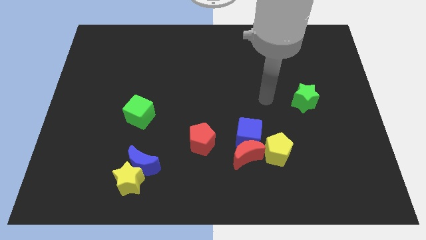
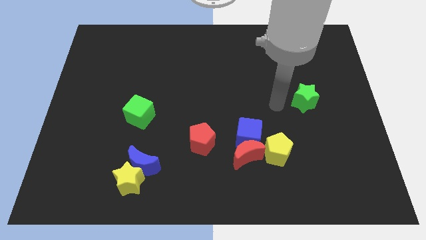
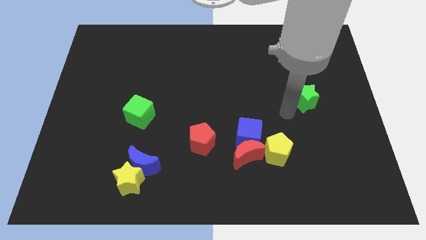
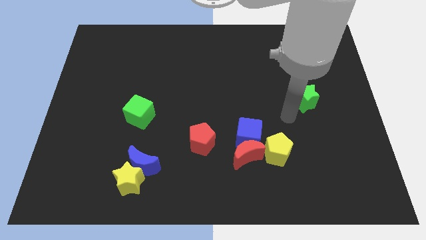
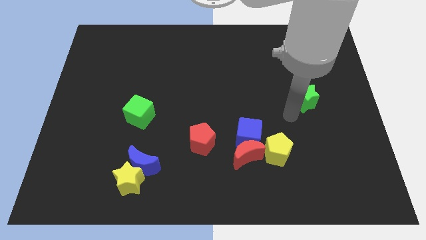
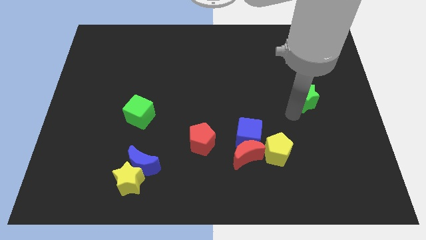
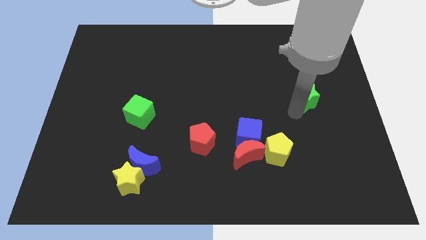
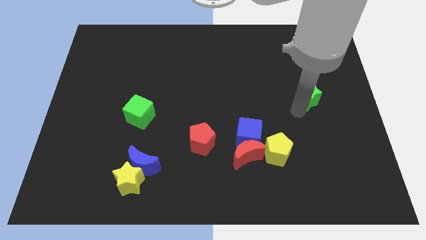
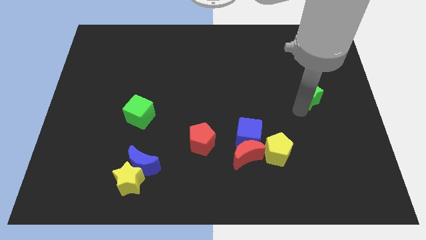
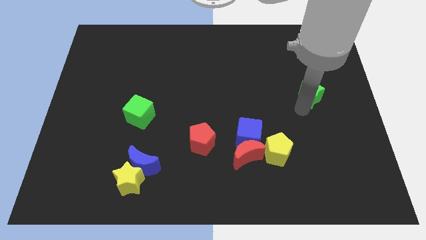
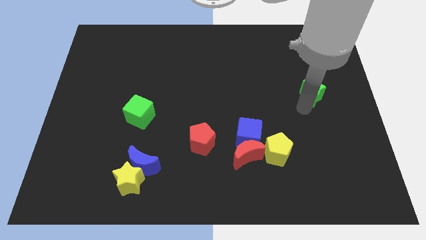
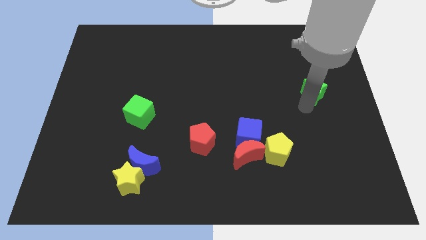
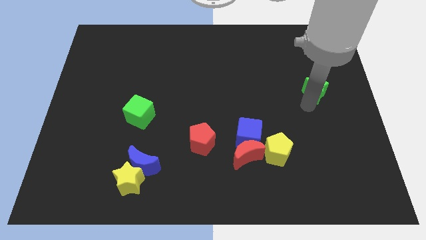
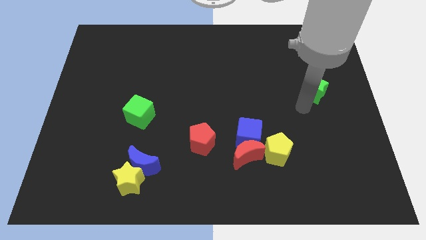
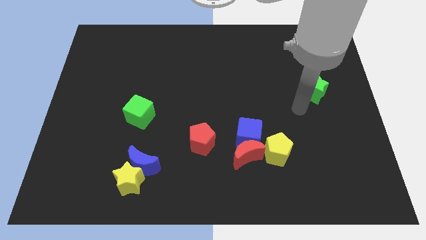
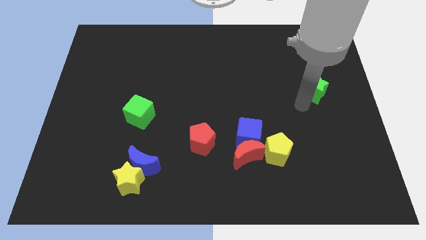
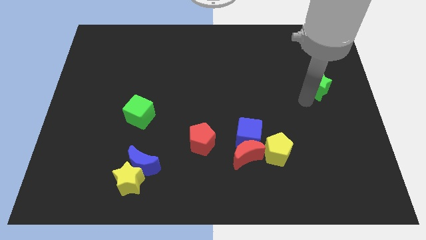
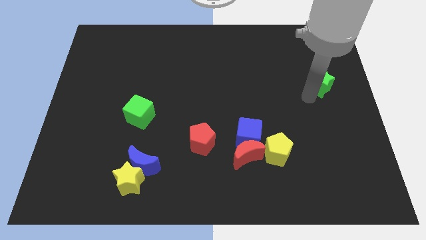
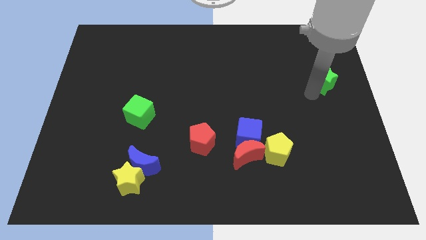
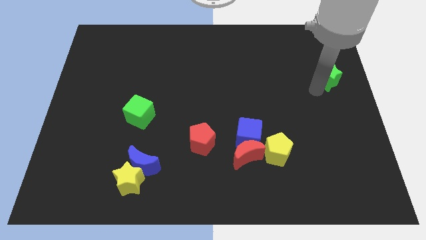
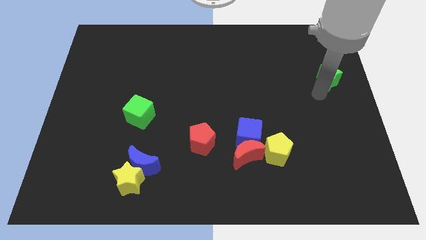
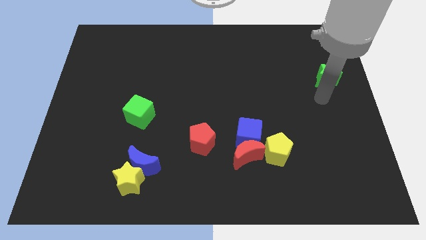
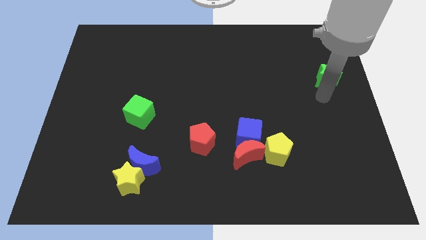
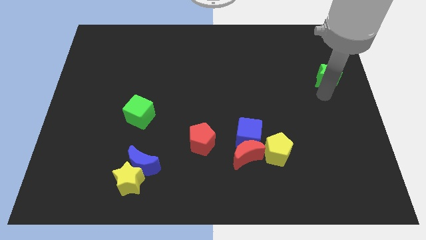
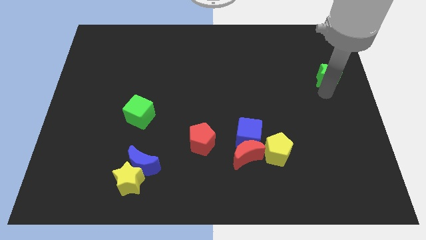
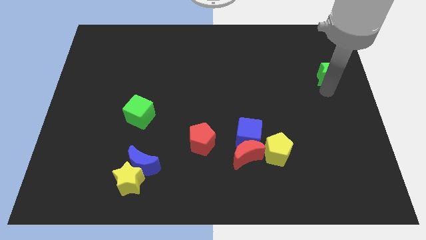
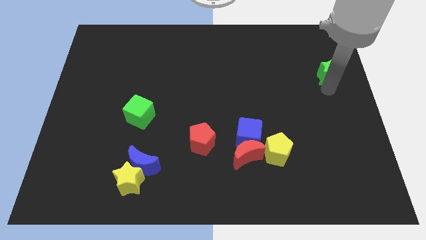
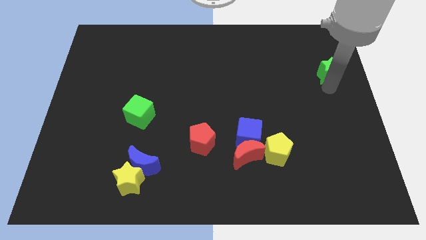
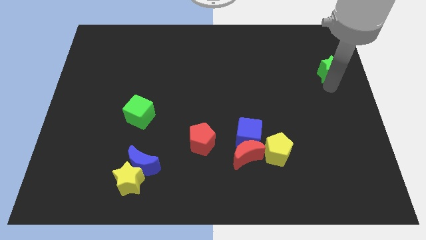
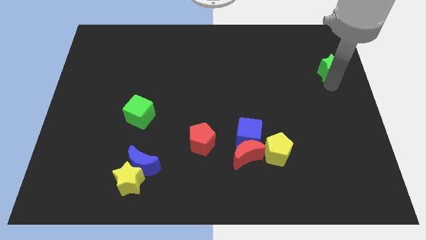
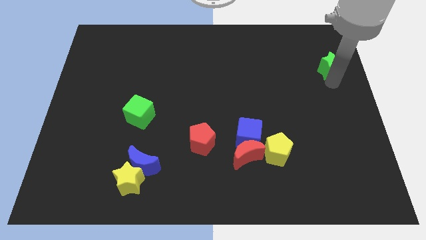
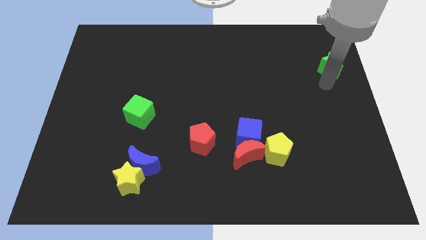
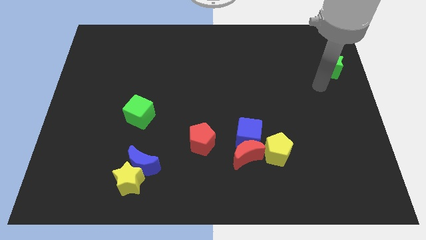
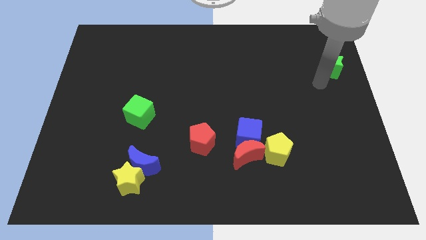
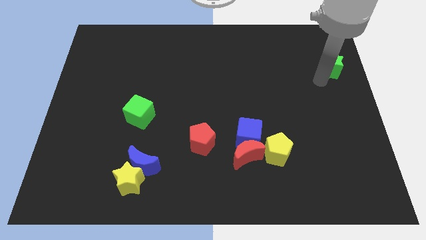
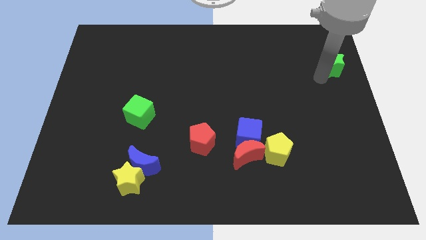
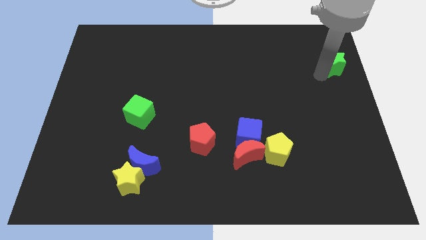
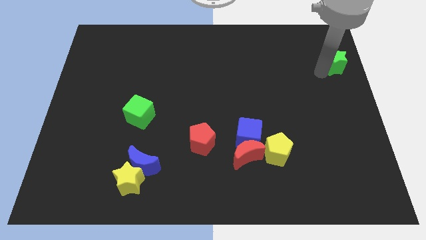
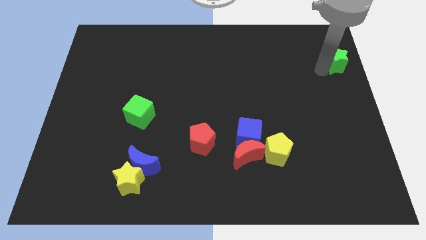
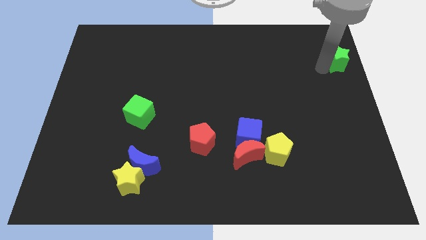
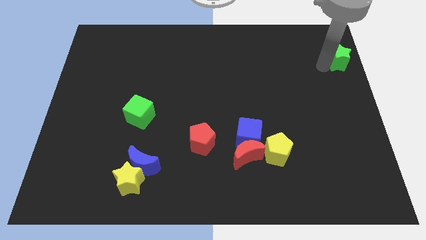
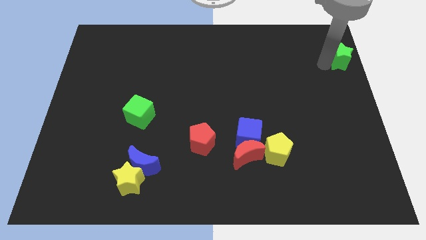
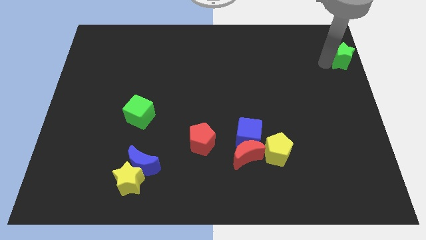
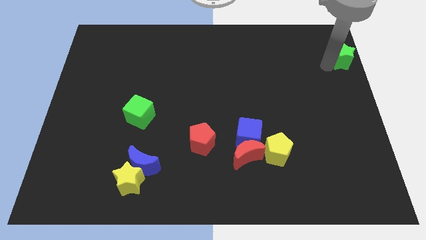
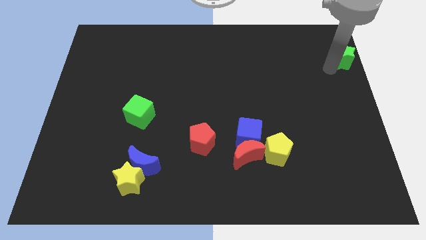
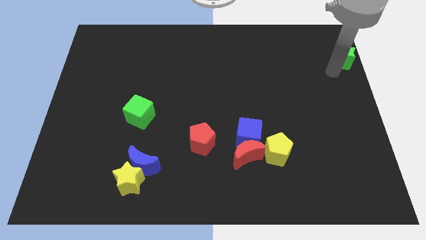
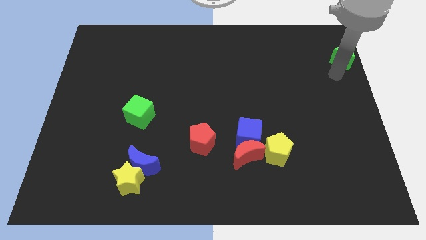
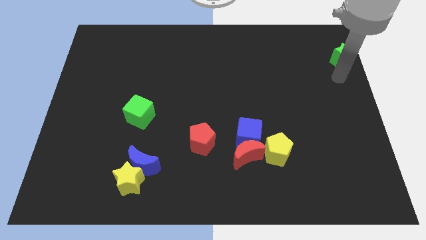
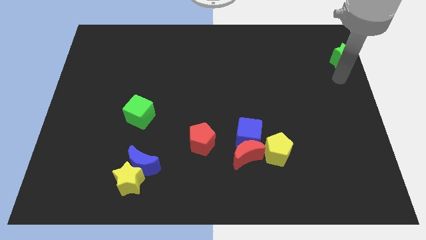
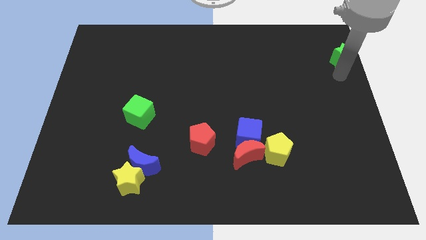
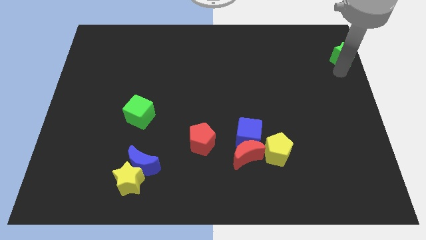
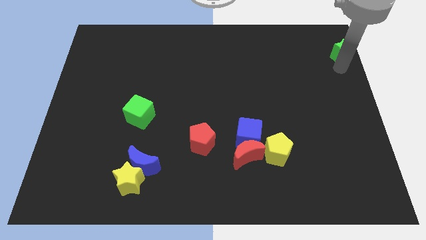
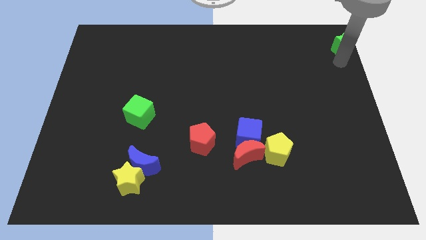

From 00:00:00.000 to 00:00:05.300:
push the green star to the top right

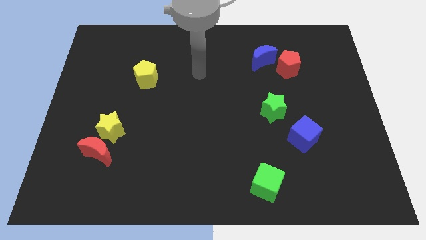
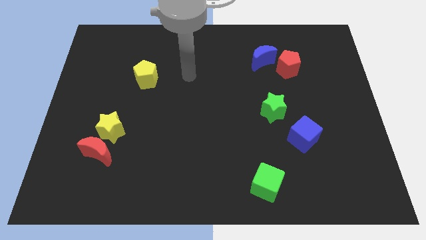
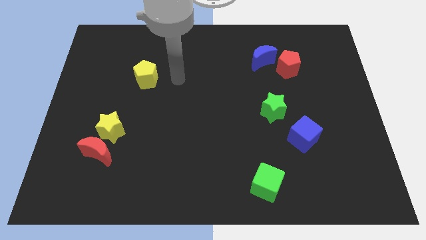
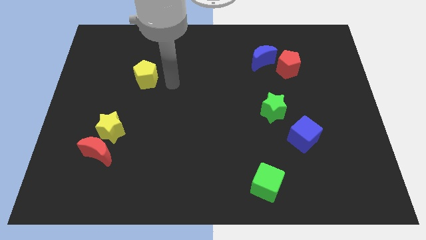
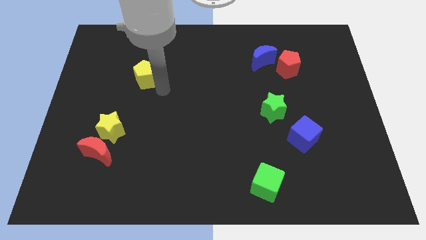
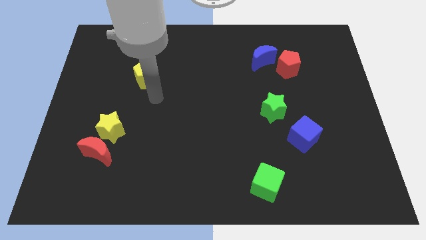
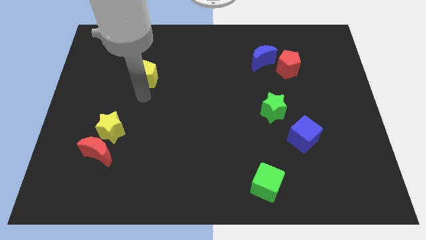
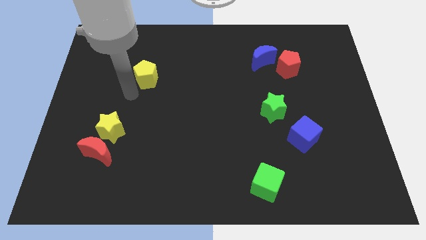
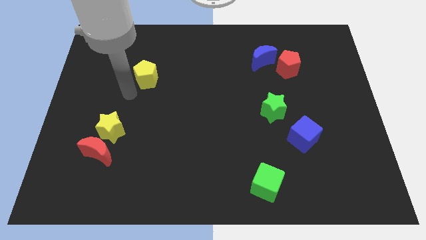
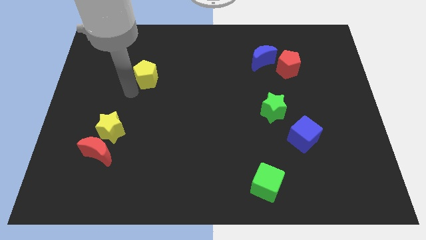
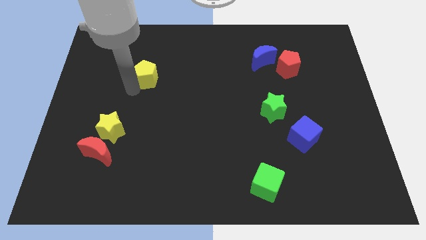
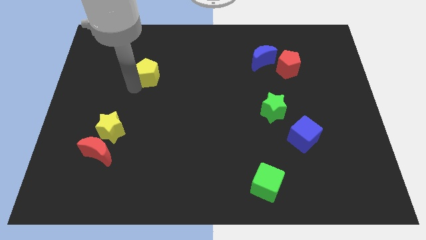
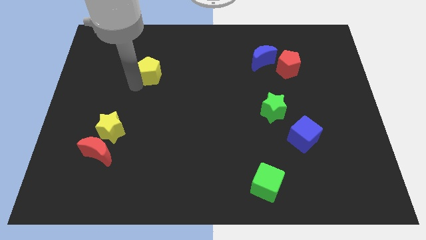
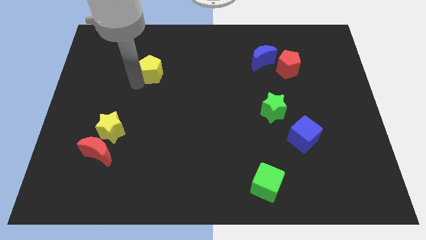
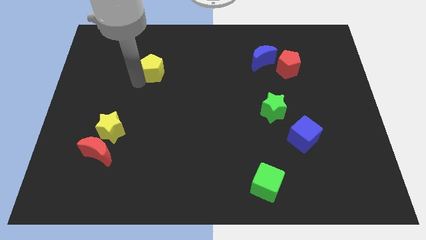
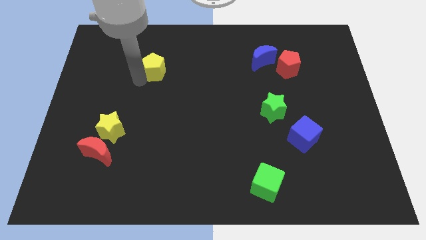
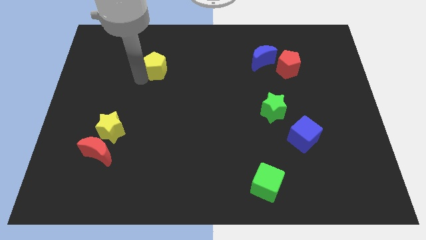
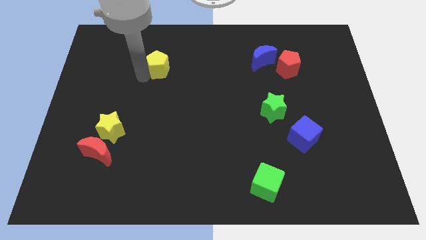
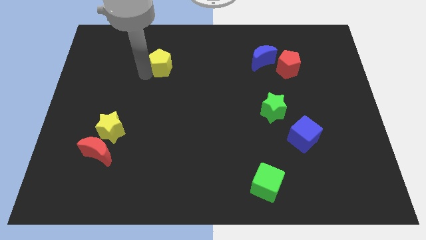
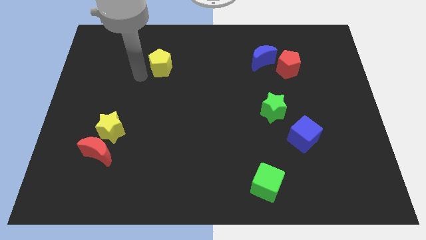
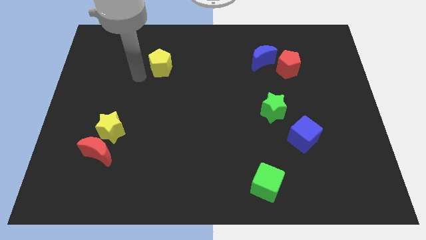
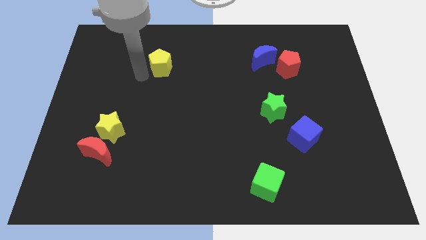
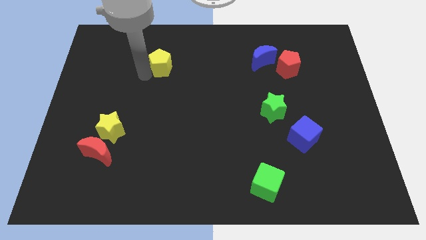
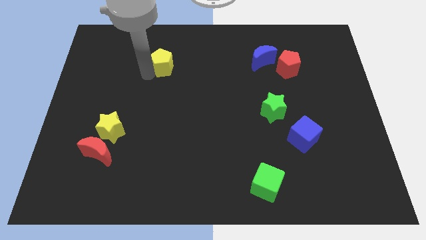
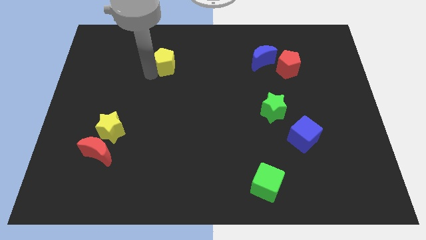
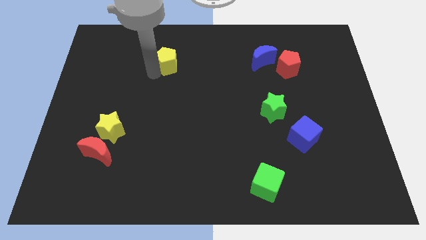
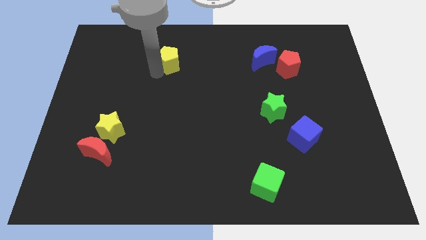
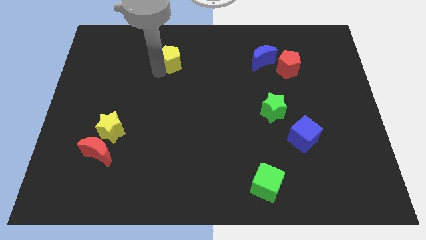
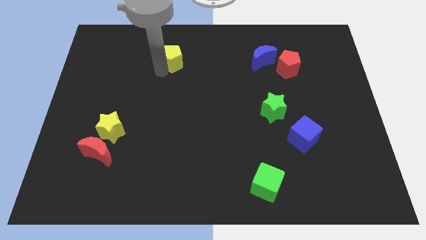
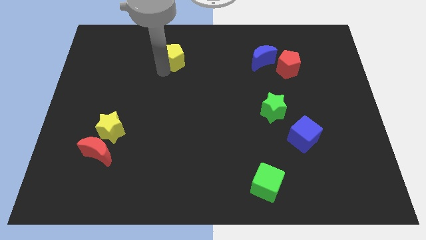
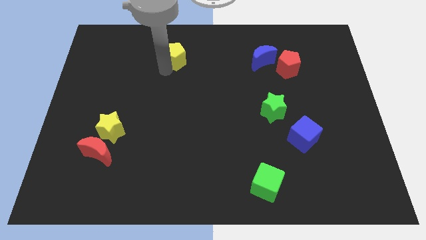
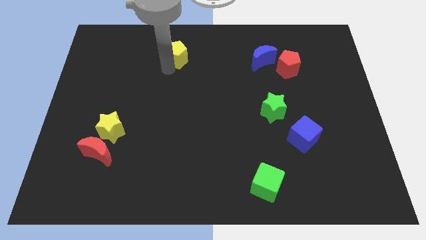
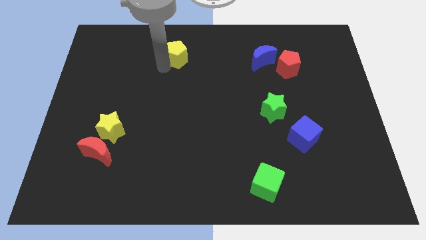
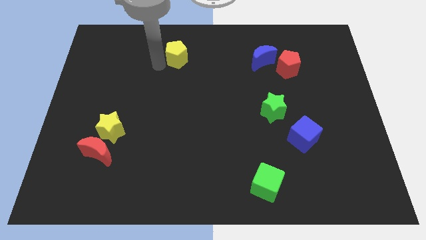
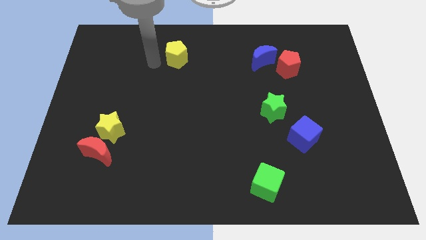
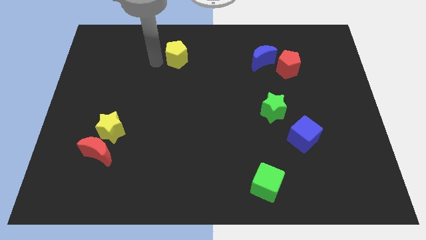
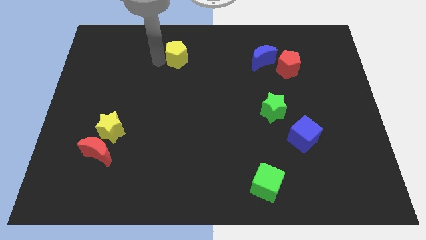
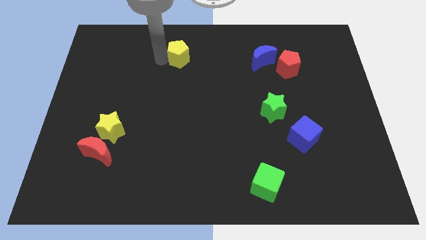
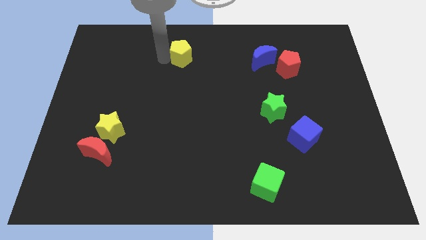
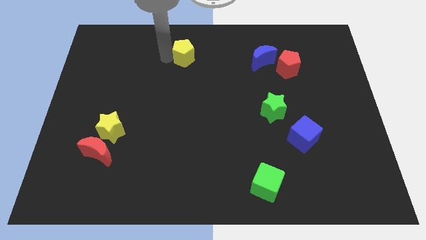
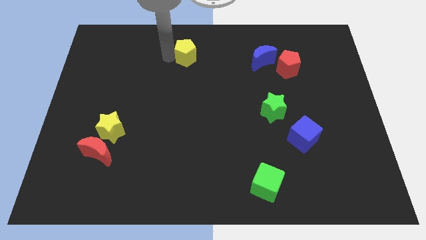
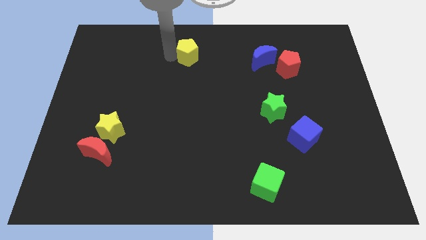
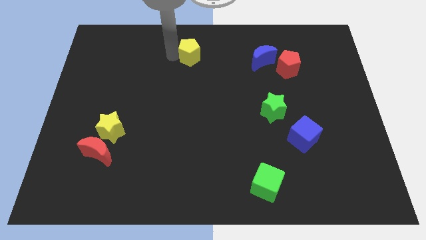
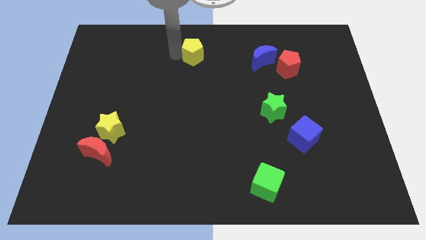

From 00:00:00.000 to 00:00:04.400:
put the yellow pentagon to the towards your base
